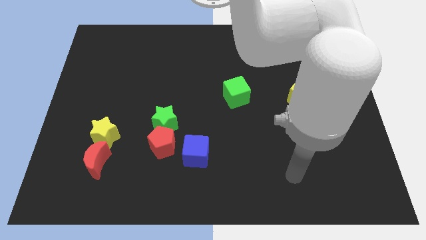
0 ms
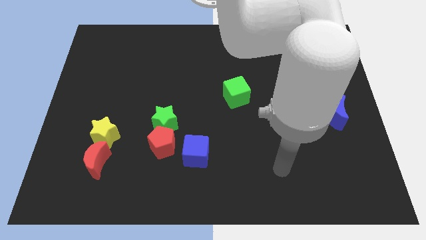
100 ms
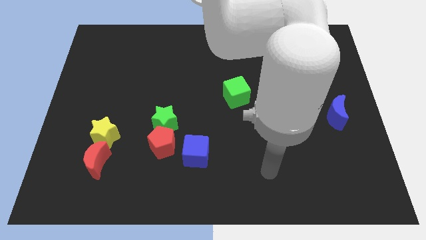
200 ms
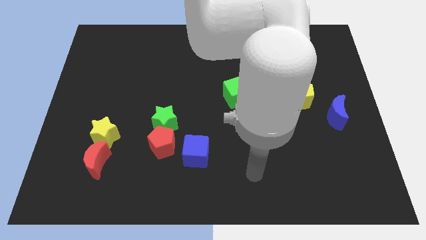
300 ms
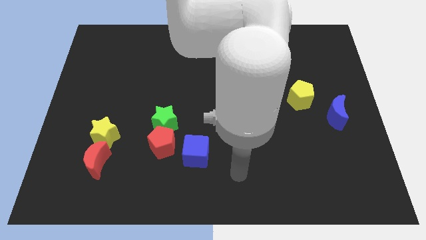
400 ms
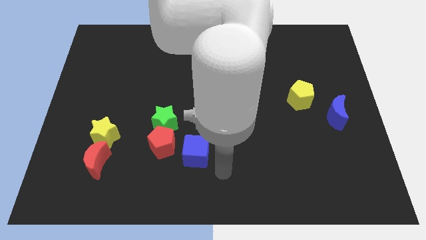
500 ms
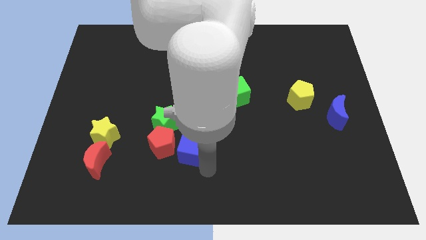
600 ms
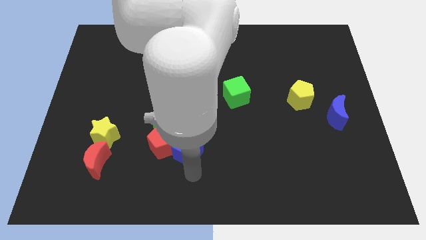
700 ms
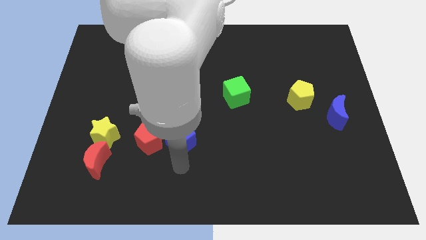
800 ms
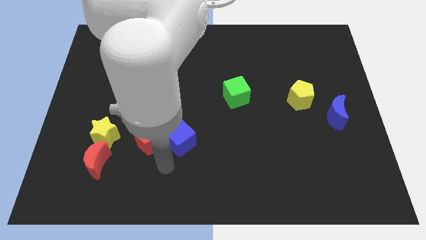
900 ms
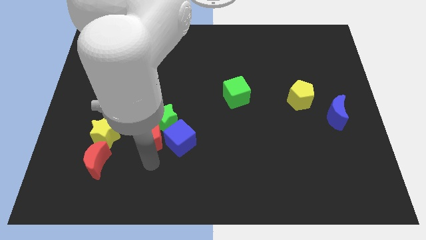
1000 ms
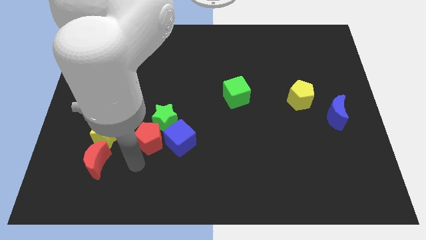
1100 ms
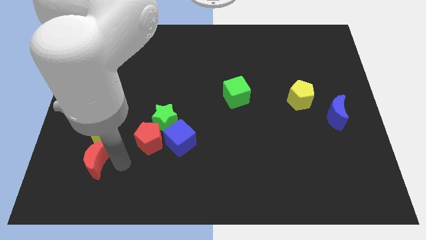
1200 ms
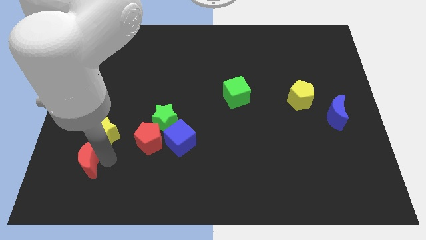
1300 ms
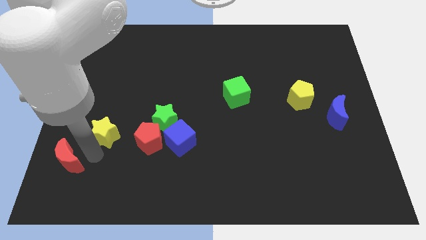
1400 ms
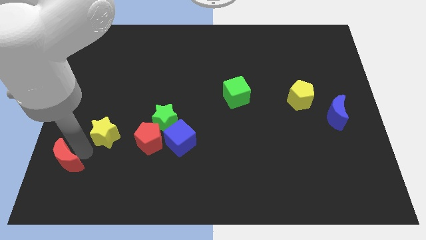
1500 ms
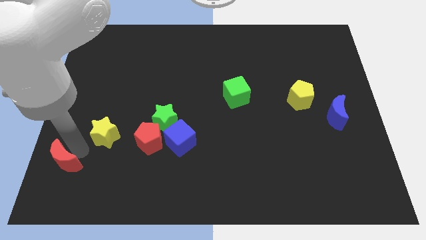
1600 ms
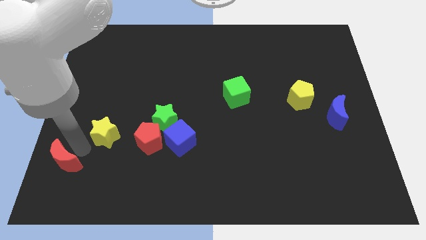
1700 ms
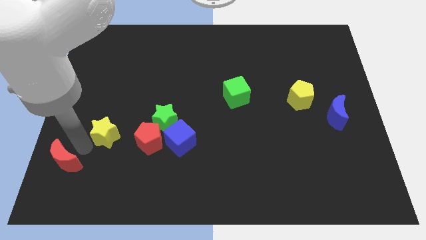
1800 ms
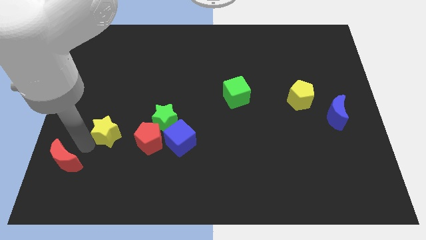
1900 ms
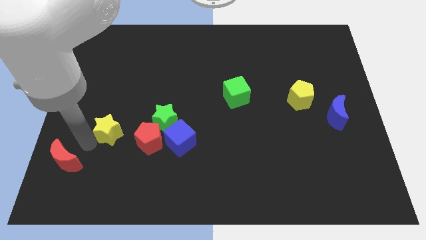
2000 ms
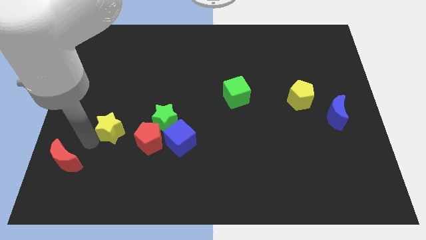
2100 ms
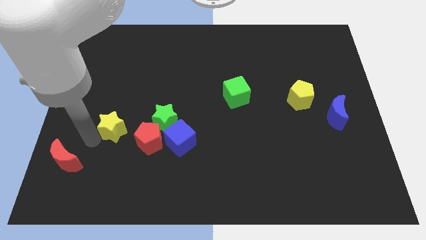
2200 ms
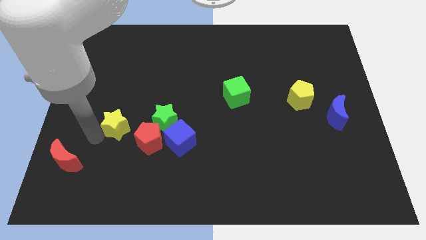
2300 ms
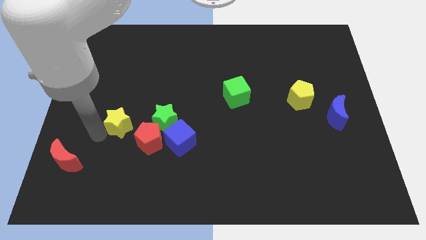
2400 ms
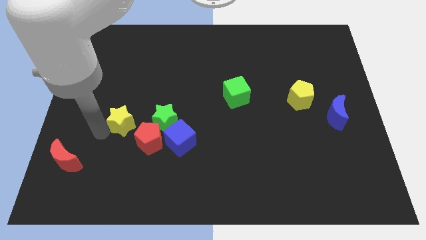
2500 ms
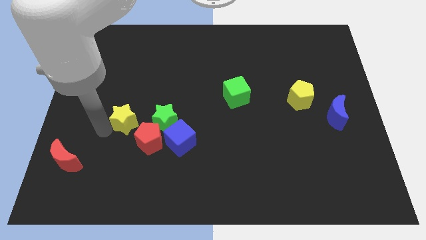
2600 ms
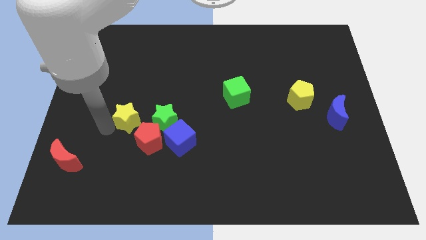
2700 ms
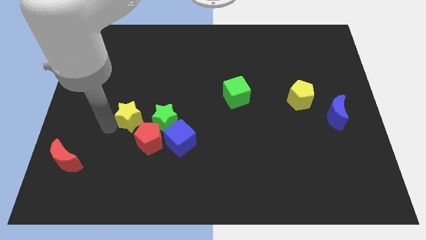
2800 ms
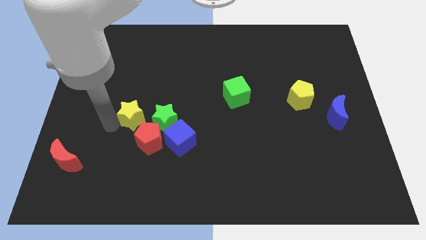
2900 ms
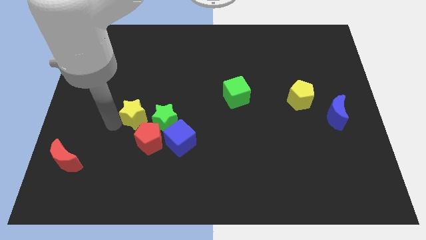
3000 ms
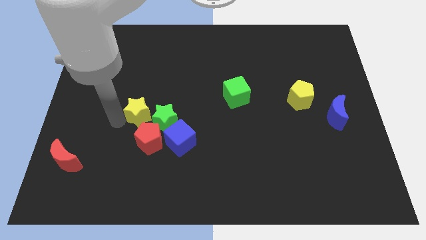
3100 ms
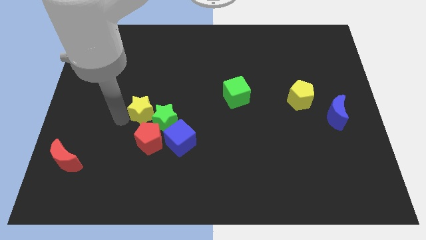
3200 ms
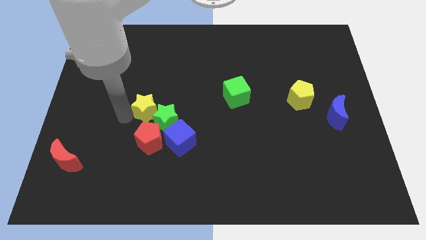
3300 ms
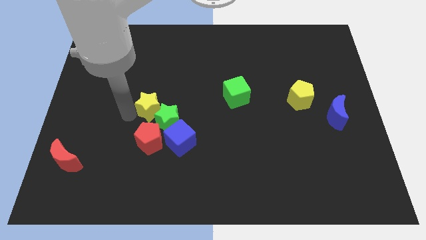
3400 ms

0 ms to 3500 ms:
slightly push the yellow star right

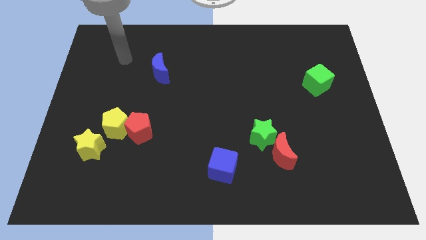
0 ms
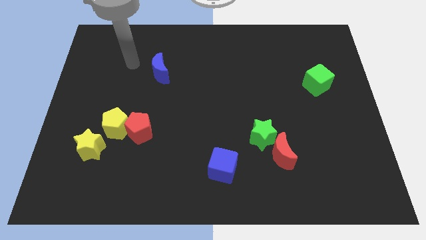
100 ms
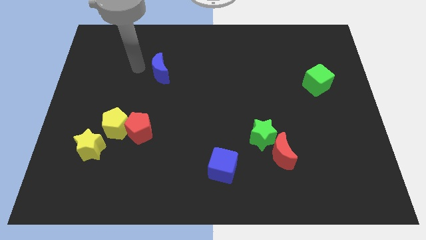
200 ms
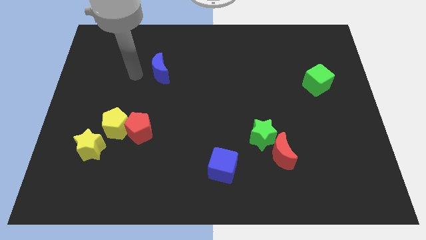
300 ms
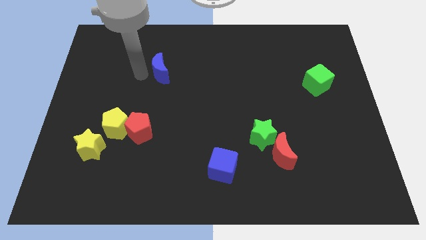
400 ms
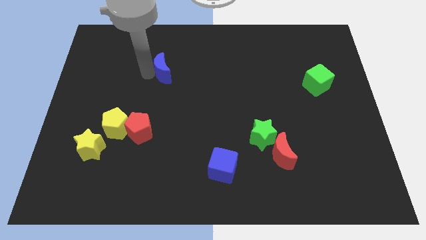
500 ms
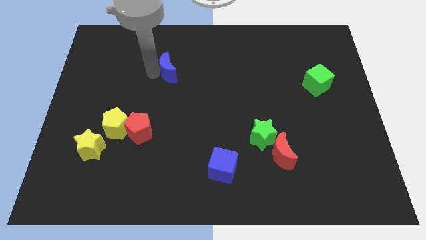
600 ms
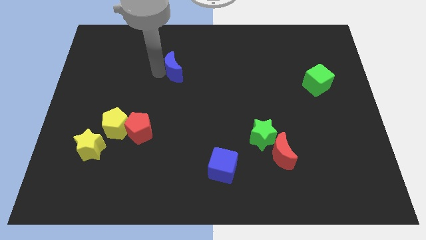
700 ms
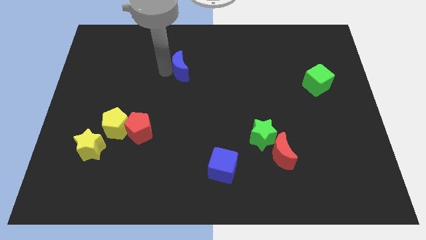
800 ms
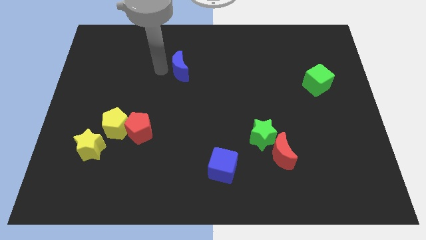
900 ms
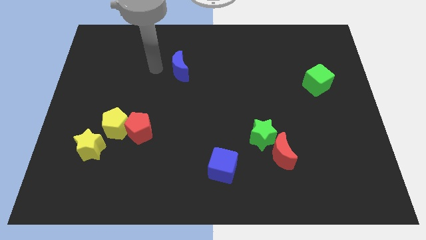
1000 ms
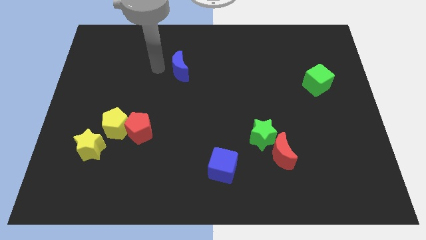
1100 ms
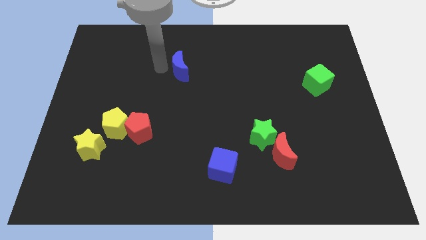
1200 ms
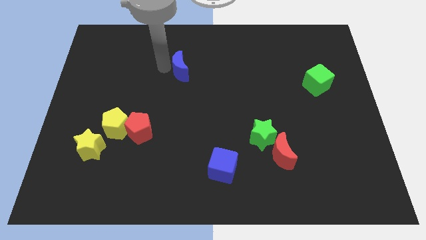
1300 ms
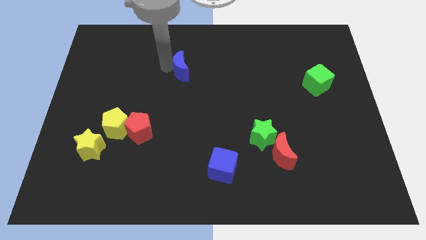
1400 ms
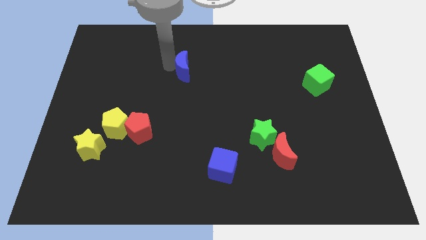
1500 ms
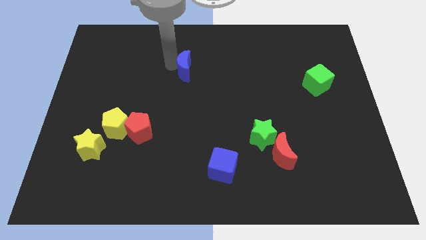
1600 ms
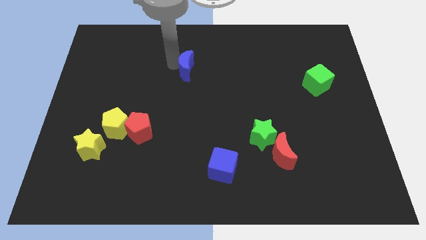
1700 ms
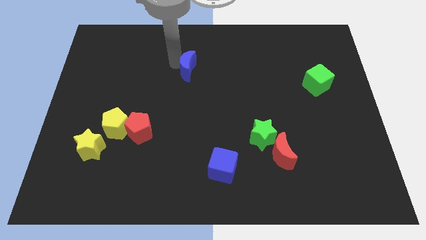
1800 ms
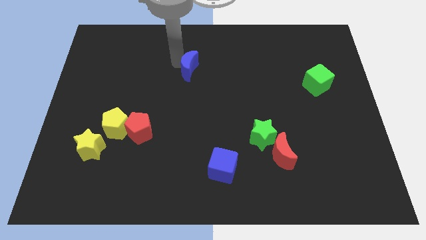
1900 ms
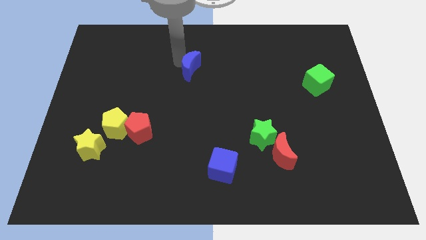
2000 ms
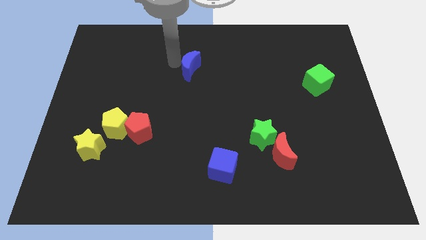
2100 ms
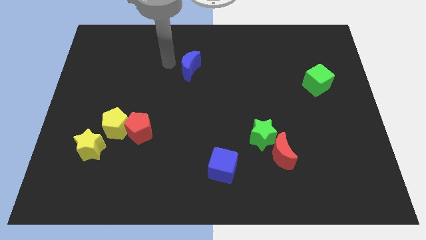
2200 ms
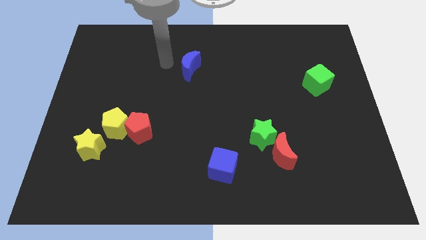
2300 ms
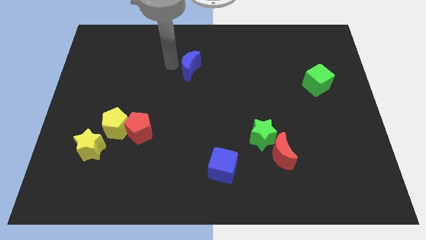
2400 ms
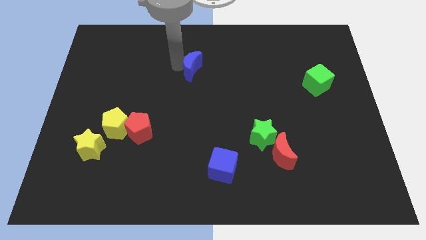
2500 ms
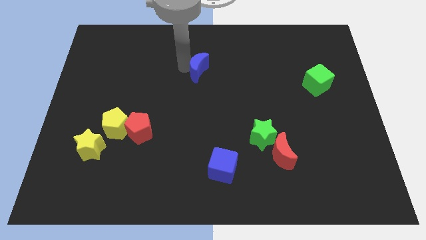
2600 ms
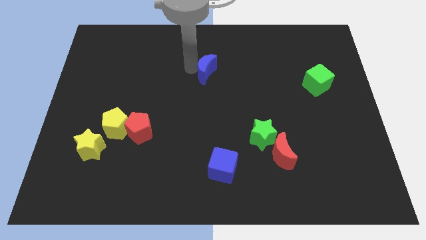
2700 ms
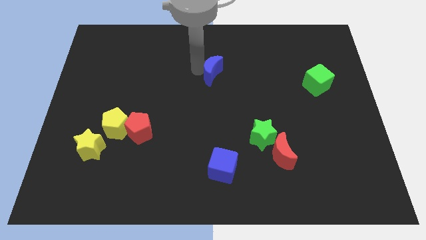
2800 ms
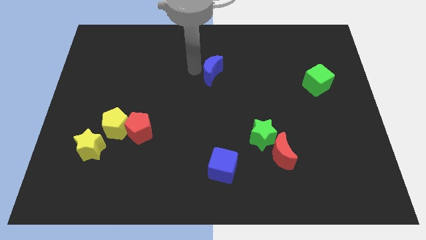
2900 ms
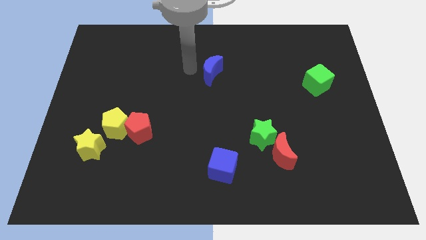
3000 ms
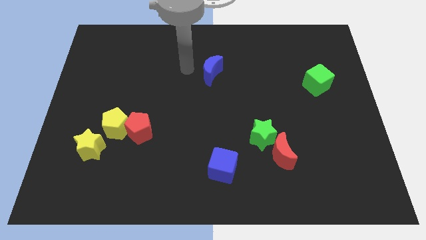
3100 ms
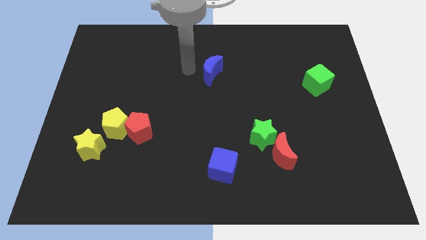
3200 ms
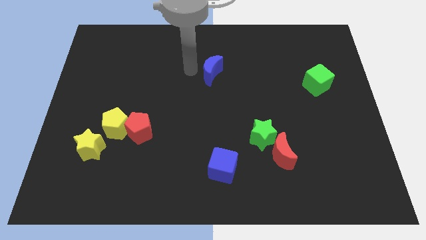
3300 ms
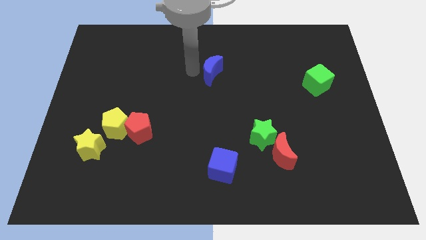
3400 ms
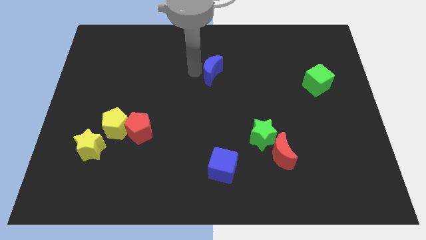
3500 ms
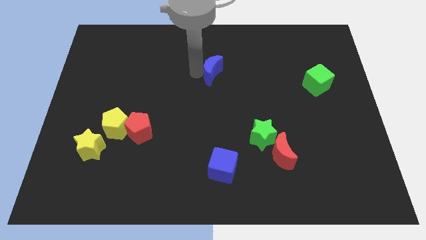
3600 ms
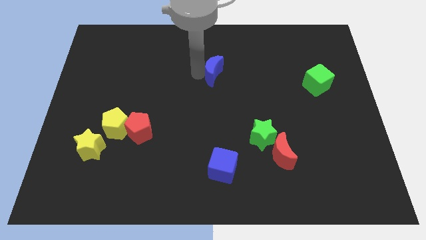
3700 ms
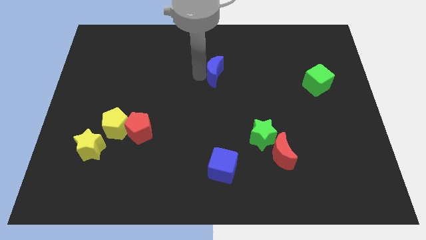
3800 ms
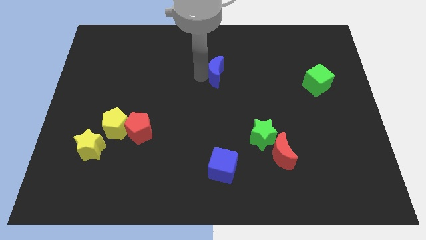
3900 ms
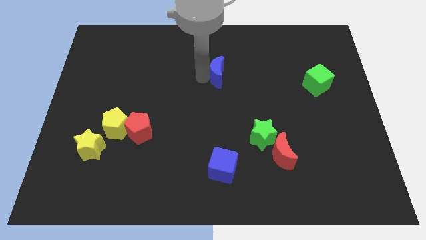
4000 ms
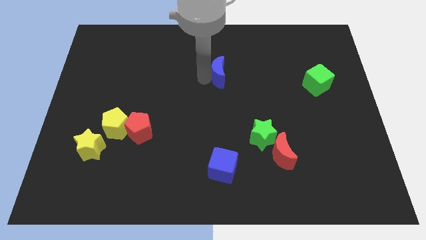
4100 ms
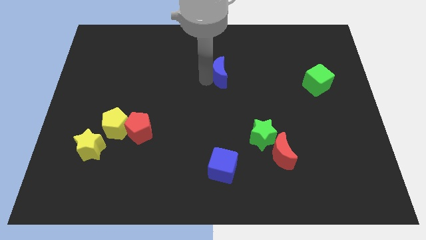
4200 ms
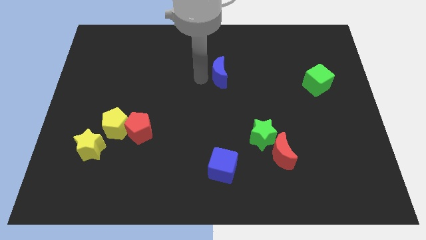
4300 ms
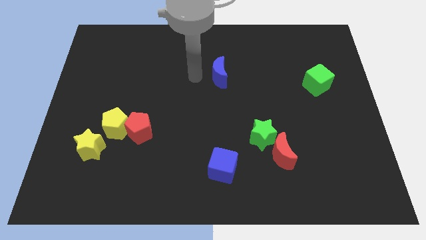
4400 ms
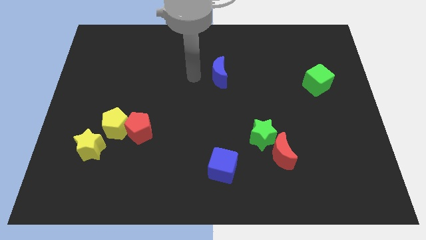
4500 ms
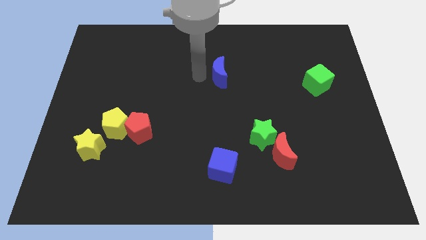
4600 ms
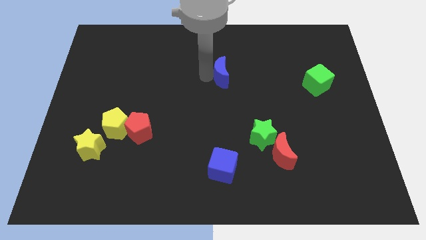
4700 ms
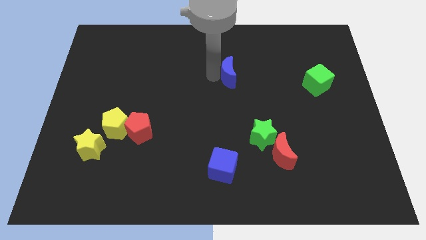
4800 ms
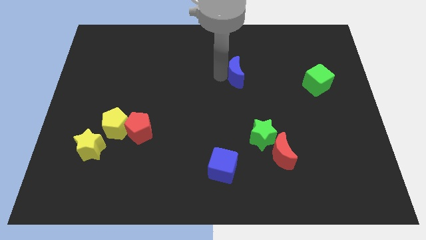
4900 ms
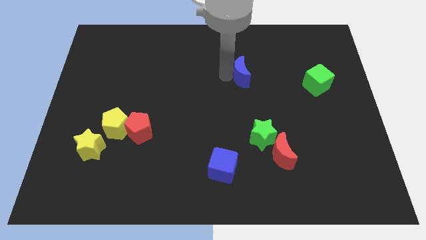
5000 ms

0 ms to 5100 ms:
move the blue moon right
